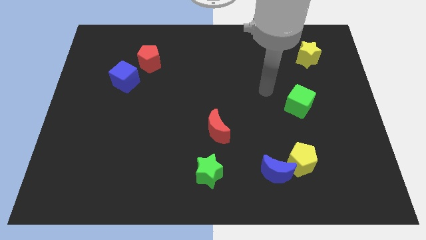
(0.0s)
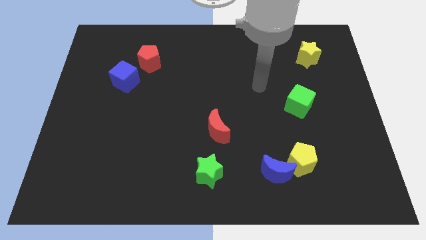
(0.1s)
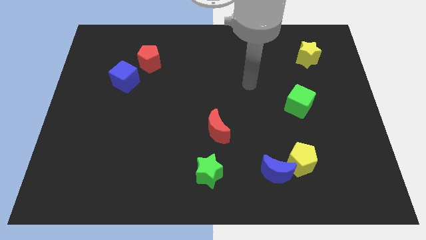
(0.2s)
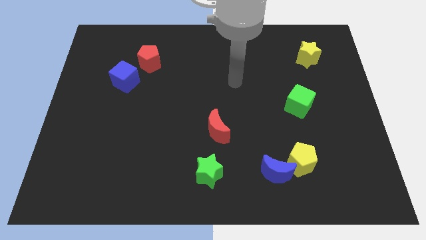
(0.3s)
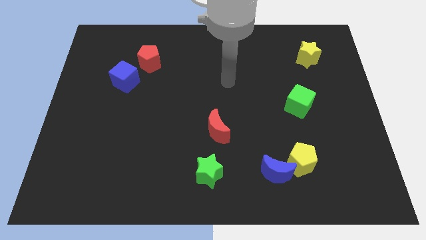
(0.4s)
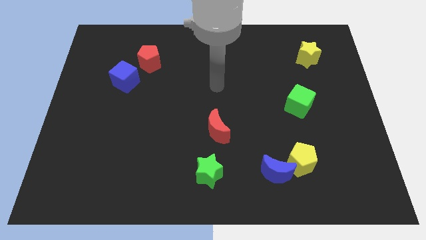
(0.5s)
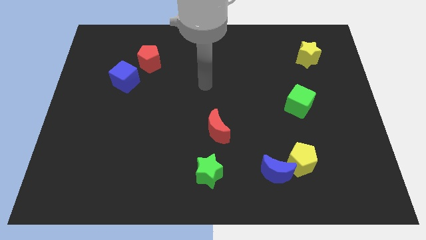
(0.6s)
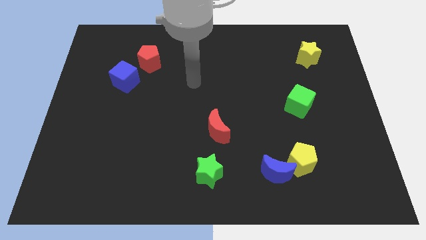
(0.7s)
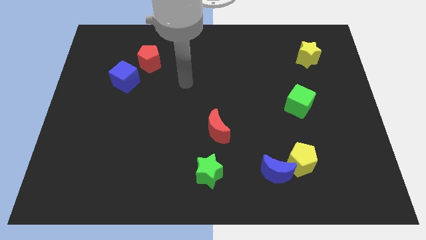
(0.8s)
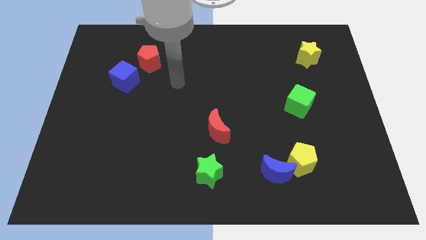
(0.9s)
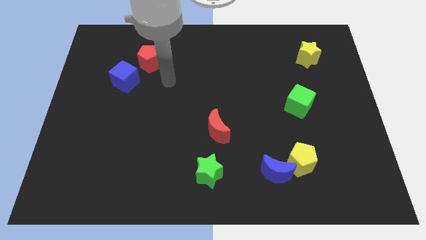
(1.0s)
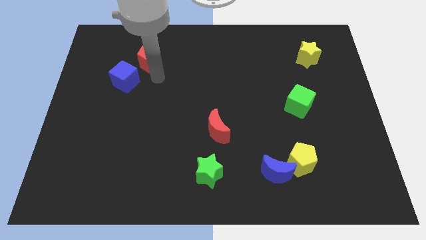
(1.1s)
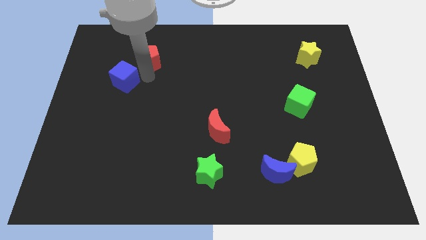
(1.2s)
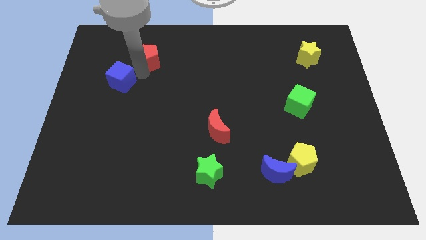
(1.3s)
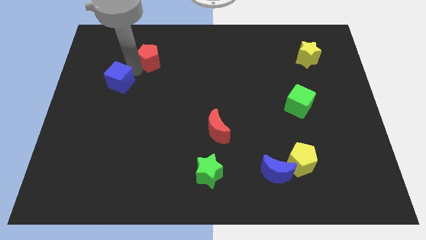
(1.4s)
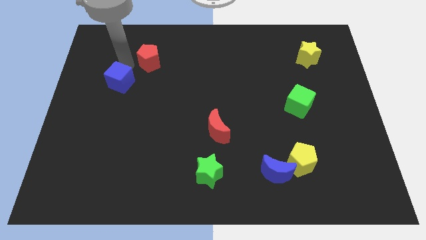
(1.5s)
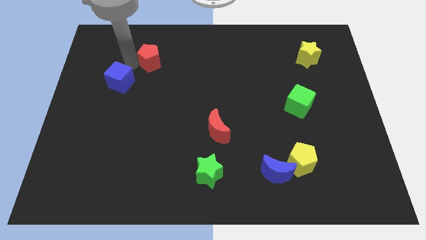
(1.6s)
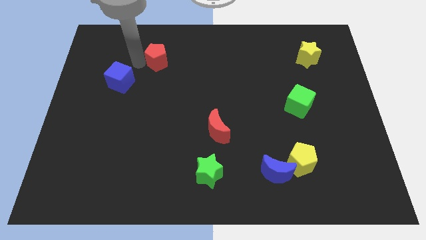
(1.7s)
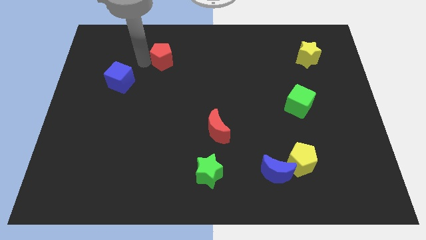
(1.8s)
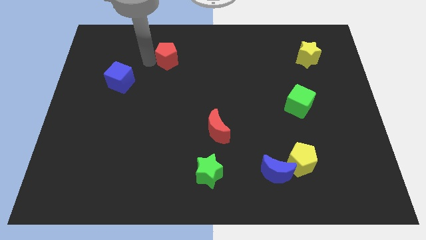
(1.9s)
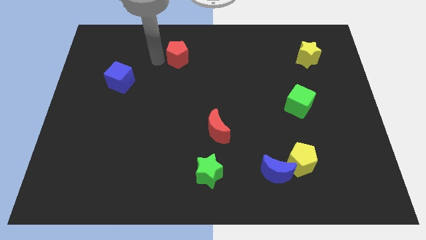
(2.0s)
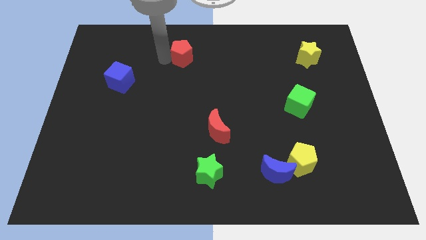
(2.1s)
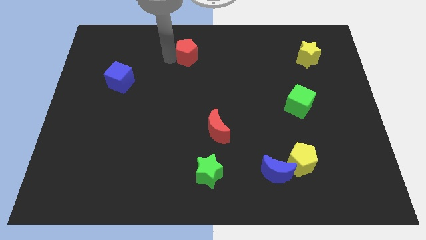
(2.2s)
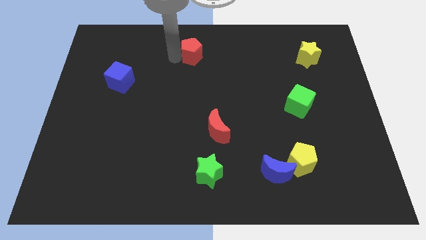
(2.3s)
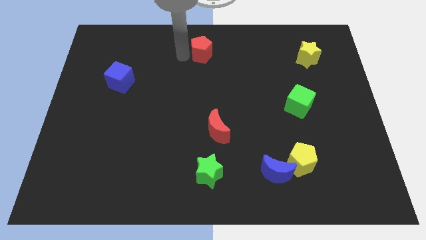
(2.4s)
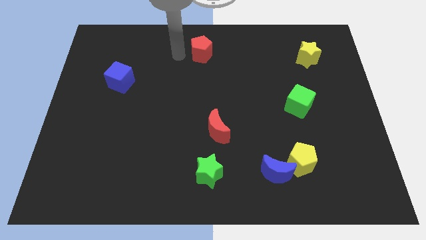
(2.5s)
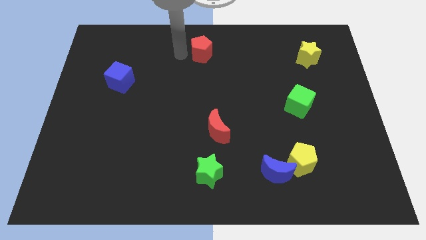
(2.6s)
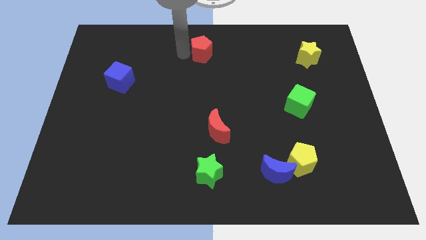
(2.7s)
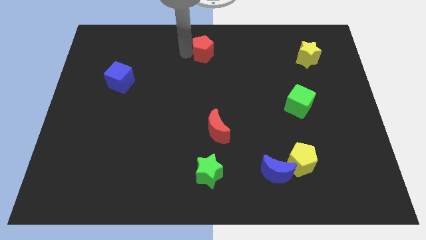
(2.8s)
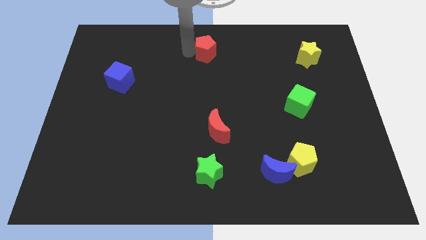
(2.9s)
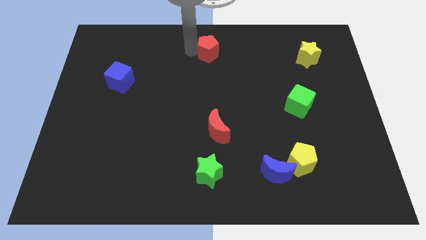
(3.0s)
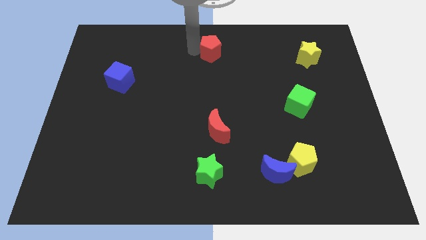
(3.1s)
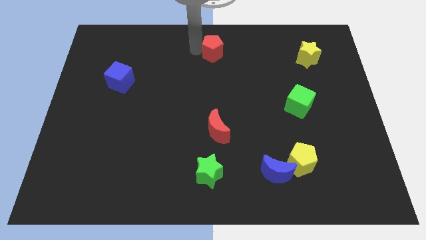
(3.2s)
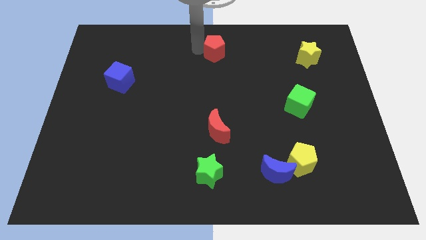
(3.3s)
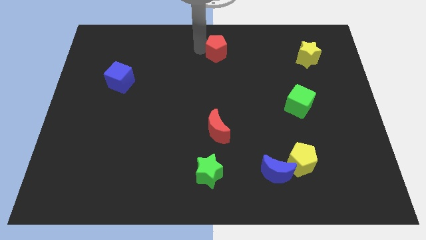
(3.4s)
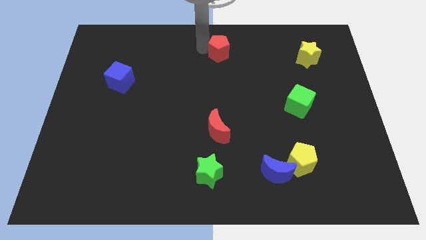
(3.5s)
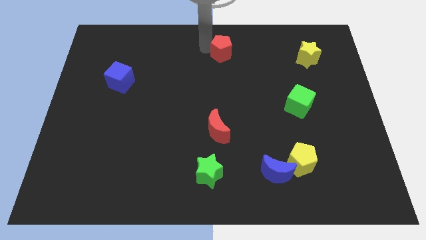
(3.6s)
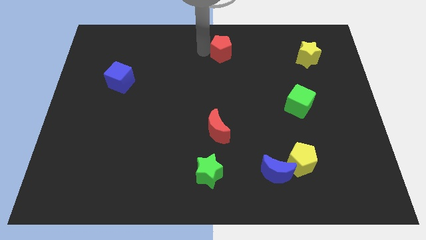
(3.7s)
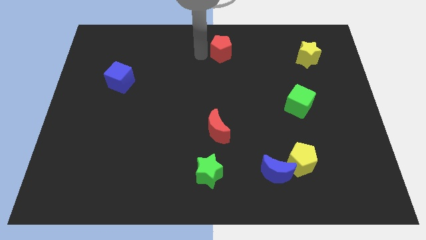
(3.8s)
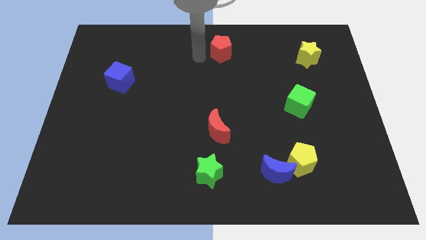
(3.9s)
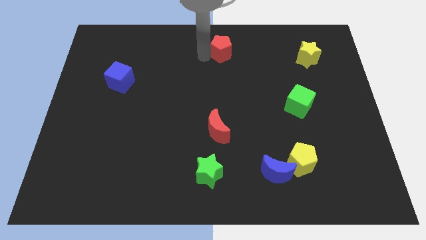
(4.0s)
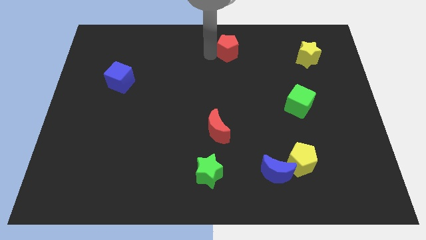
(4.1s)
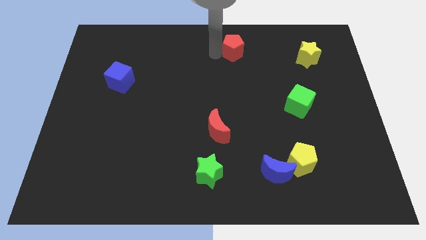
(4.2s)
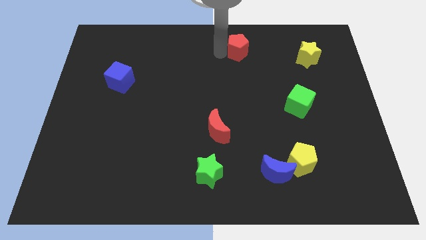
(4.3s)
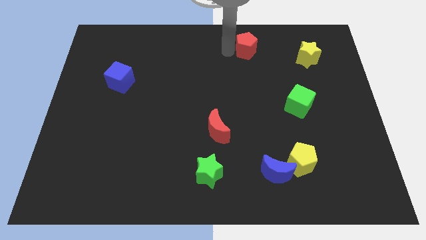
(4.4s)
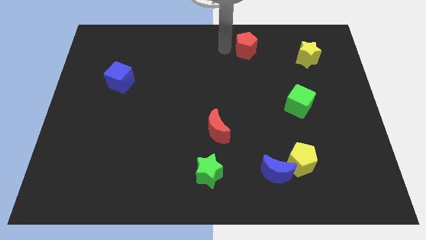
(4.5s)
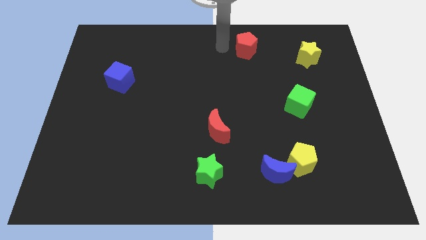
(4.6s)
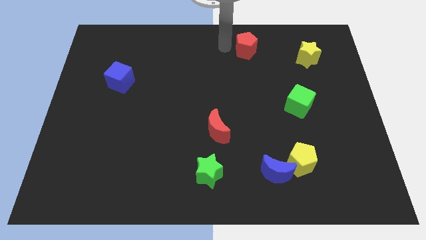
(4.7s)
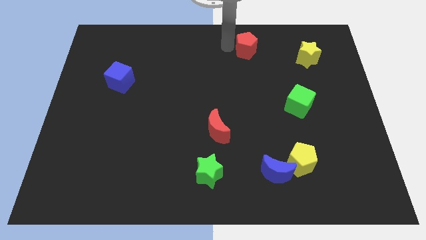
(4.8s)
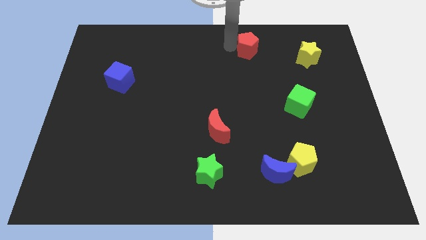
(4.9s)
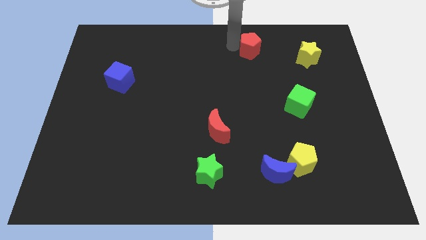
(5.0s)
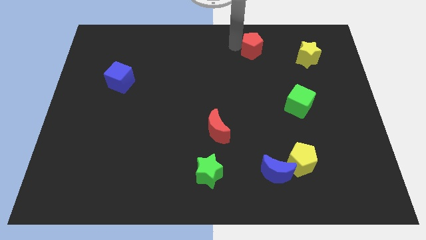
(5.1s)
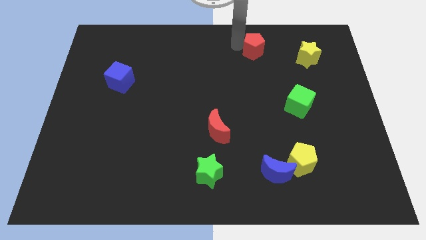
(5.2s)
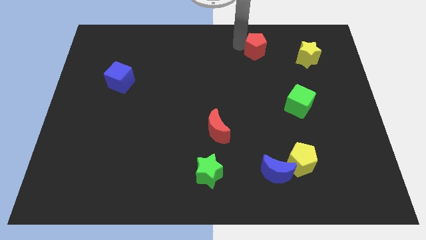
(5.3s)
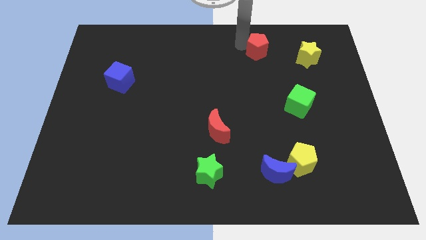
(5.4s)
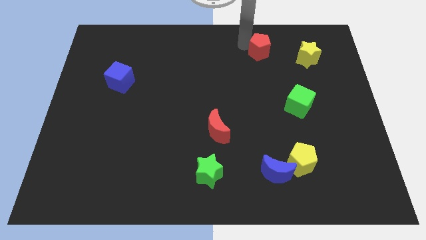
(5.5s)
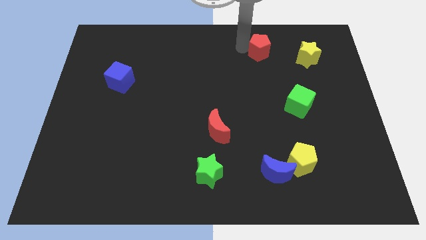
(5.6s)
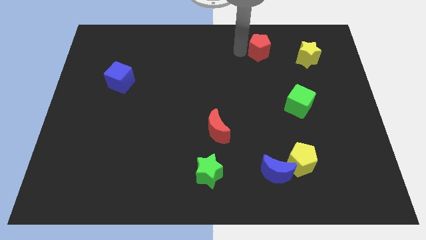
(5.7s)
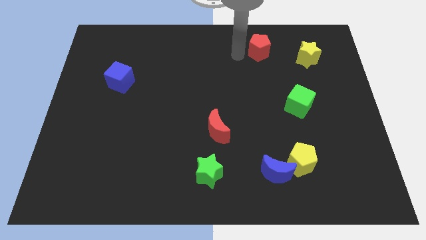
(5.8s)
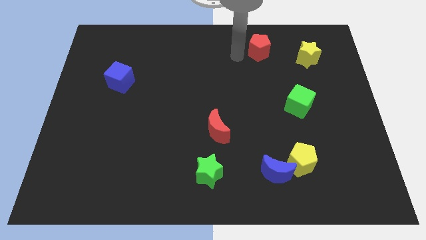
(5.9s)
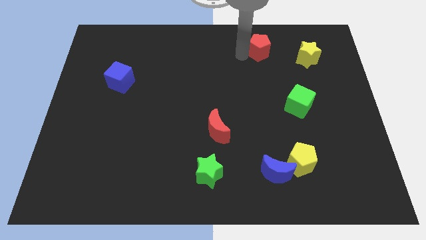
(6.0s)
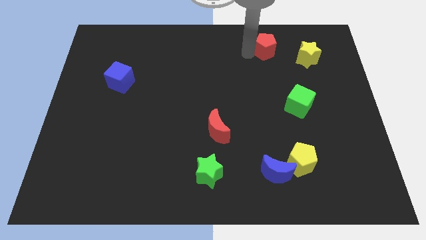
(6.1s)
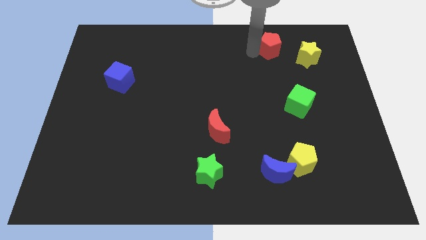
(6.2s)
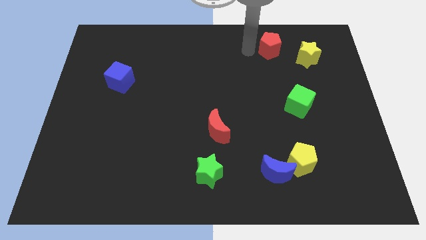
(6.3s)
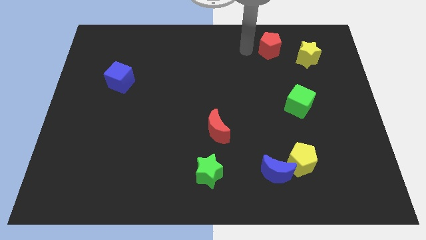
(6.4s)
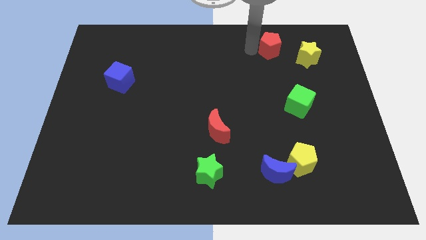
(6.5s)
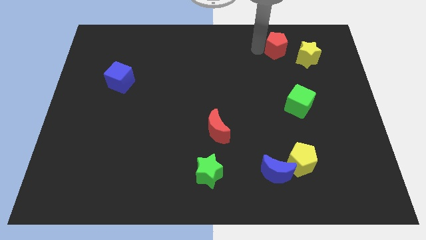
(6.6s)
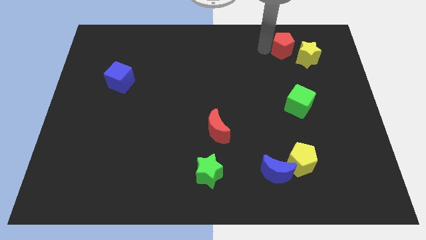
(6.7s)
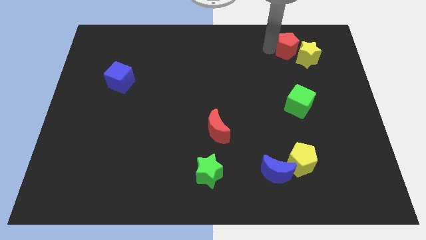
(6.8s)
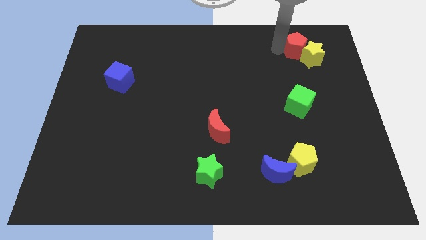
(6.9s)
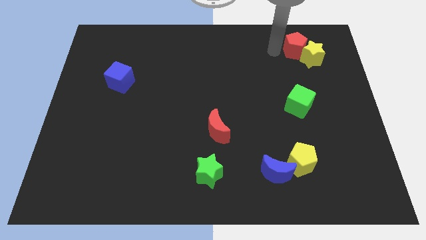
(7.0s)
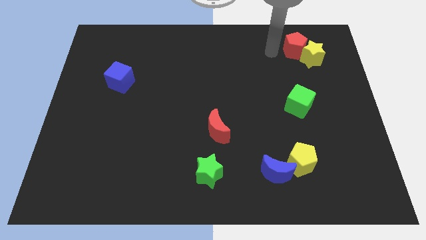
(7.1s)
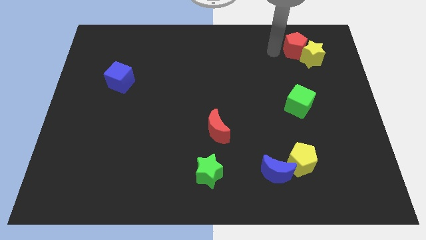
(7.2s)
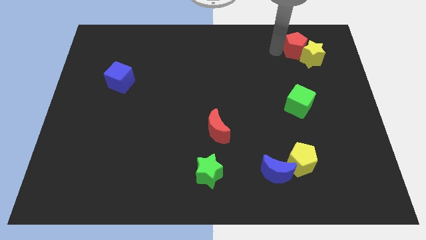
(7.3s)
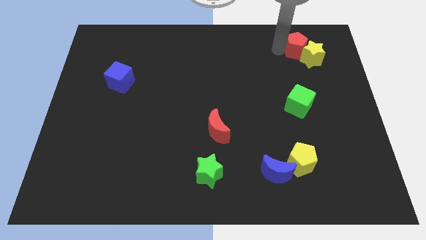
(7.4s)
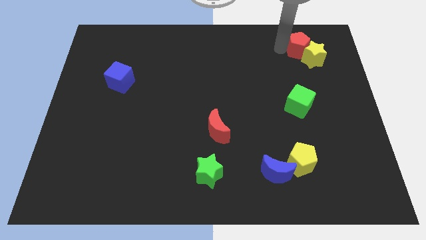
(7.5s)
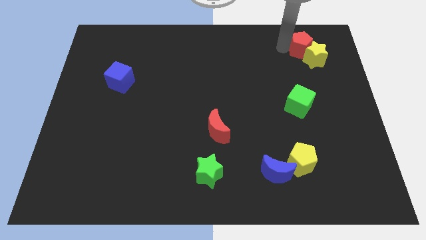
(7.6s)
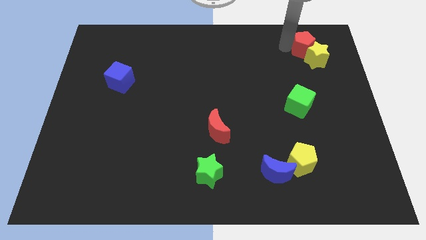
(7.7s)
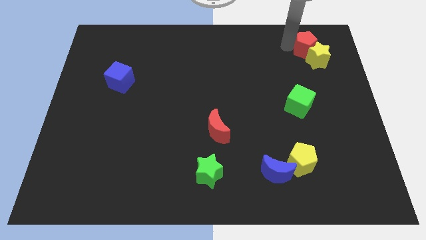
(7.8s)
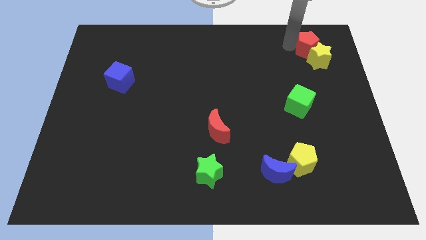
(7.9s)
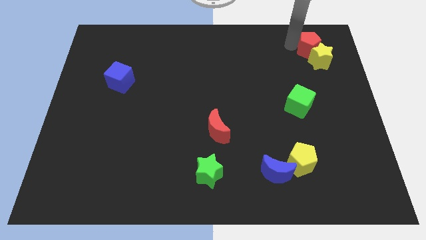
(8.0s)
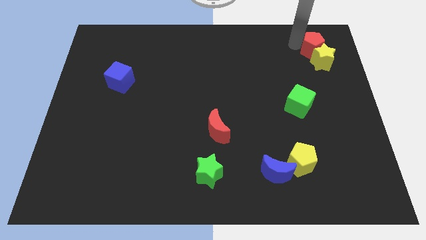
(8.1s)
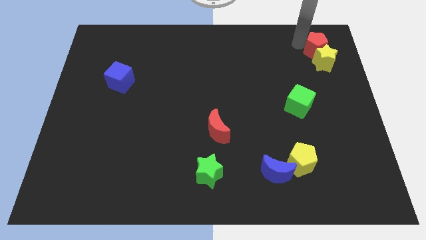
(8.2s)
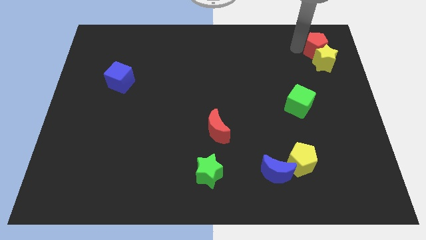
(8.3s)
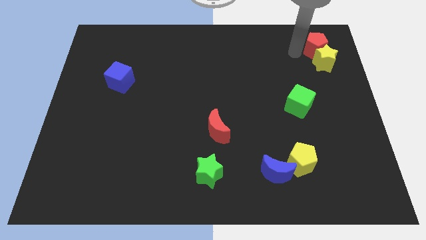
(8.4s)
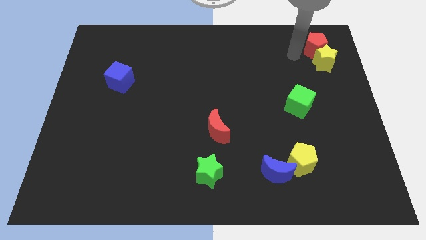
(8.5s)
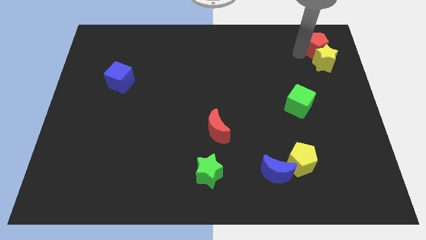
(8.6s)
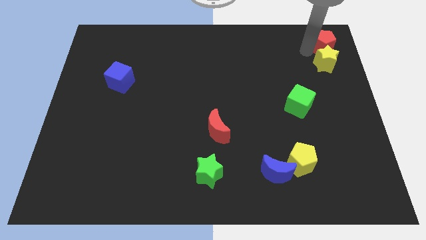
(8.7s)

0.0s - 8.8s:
slide the red pentagon to the top right corner
